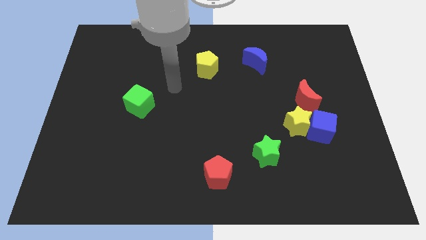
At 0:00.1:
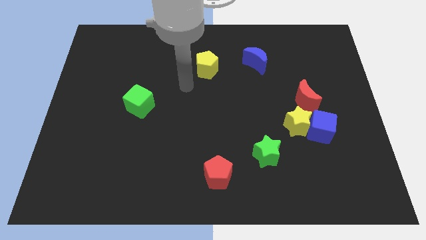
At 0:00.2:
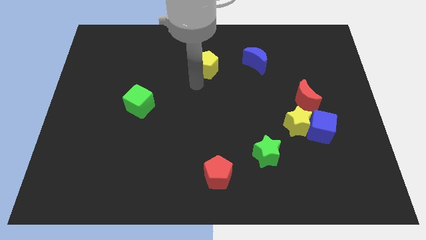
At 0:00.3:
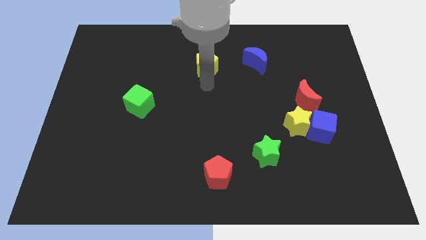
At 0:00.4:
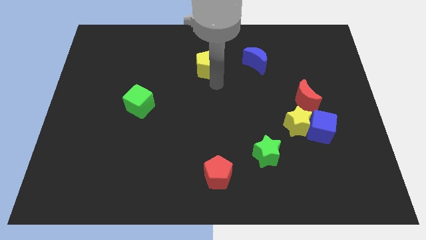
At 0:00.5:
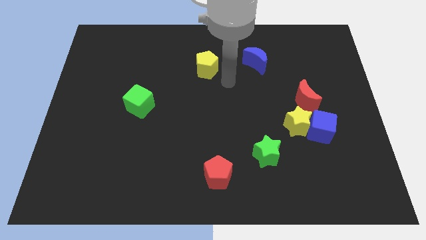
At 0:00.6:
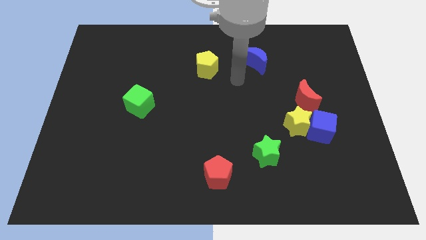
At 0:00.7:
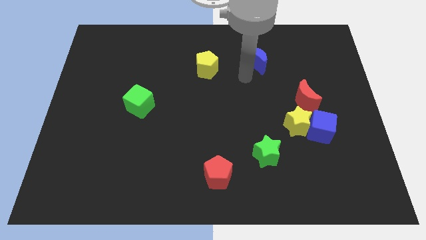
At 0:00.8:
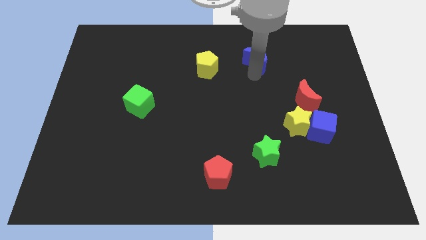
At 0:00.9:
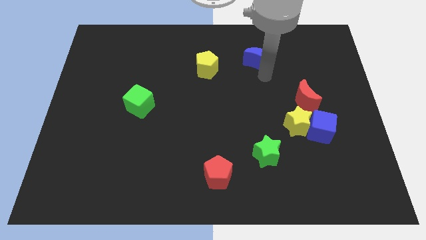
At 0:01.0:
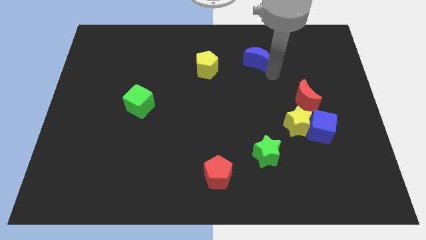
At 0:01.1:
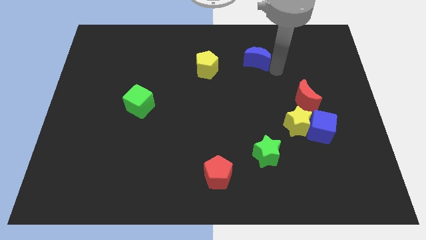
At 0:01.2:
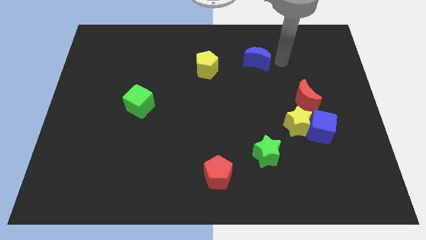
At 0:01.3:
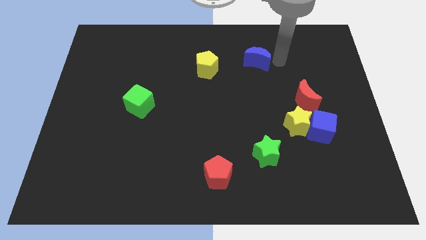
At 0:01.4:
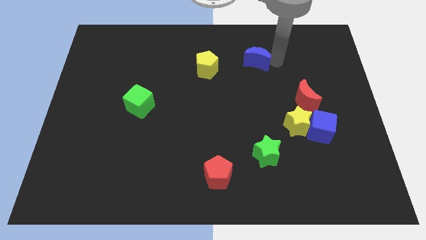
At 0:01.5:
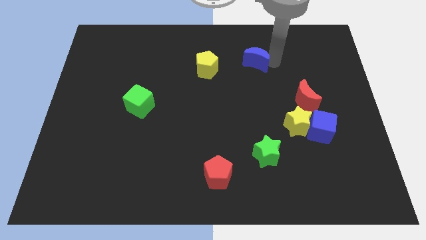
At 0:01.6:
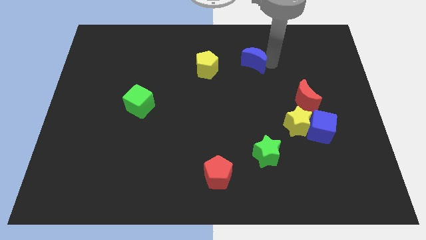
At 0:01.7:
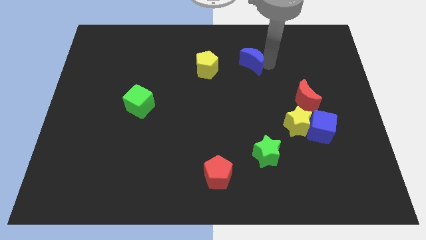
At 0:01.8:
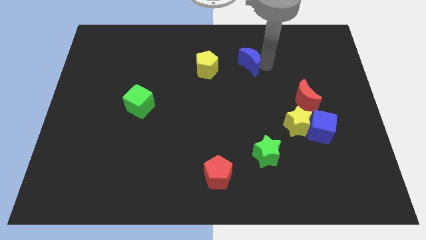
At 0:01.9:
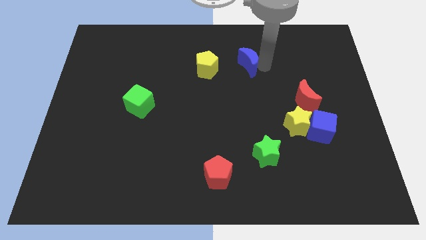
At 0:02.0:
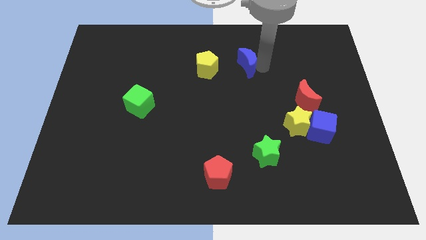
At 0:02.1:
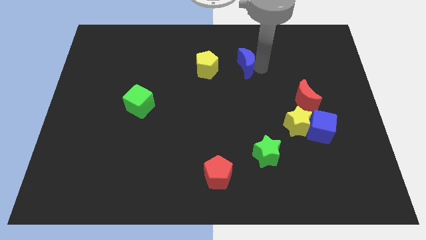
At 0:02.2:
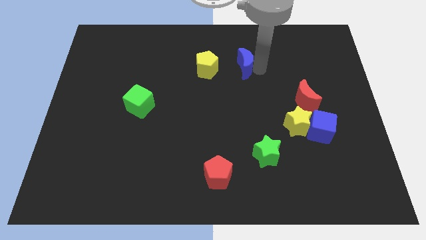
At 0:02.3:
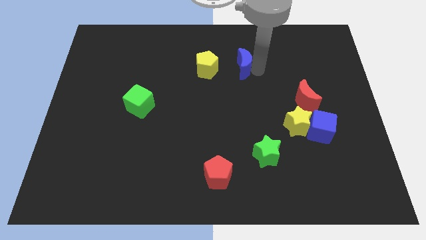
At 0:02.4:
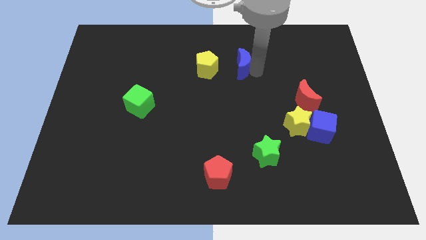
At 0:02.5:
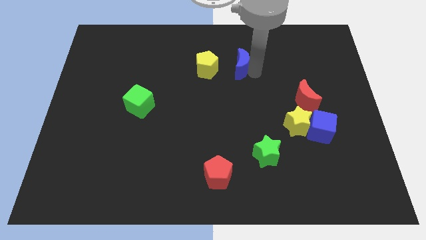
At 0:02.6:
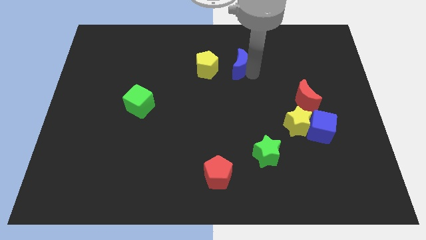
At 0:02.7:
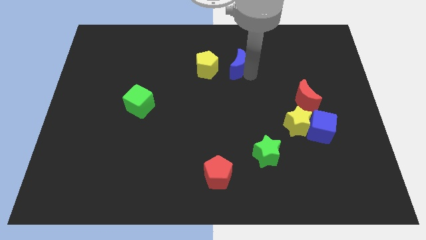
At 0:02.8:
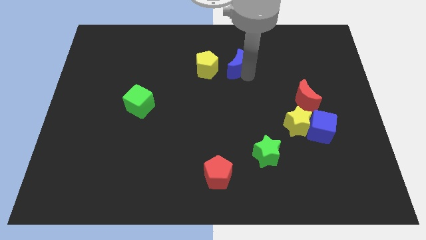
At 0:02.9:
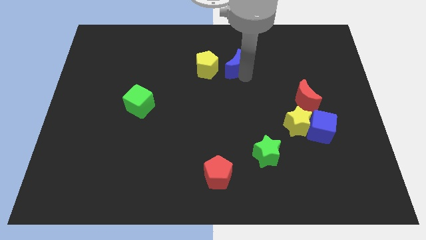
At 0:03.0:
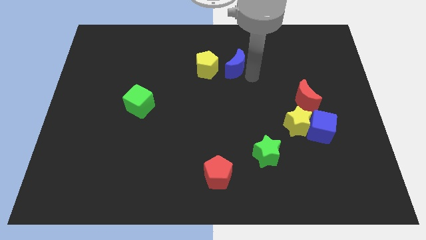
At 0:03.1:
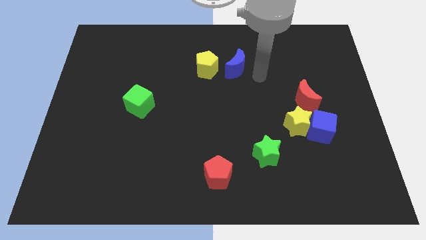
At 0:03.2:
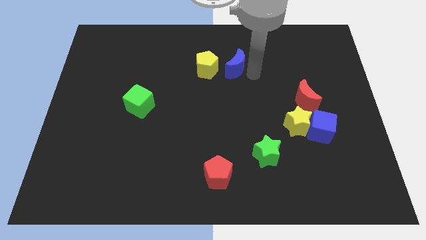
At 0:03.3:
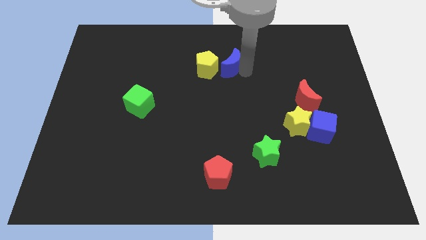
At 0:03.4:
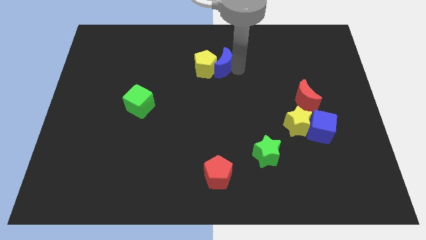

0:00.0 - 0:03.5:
move the blue moon left a little bit

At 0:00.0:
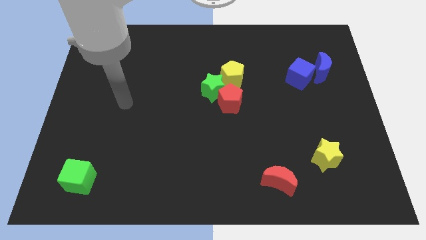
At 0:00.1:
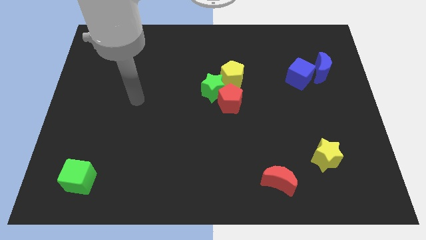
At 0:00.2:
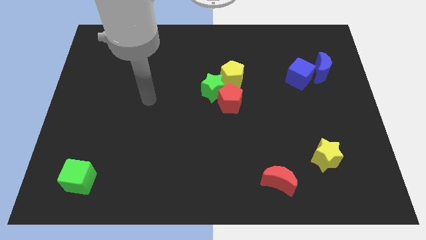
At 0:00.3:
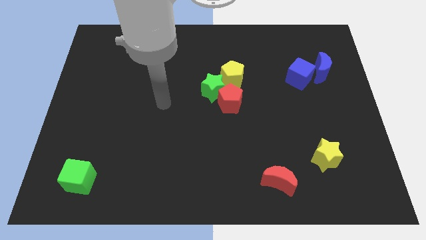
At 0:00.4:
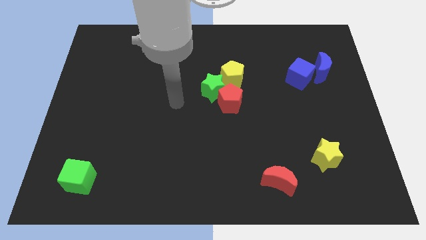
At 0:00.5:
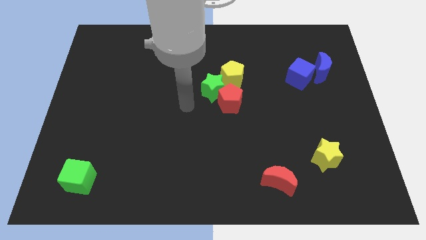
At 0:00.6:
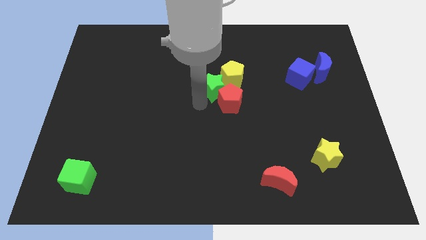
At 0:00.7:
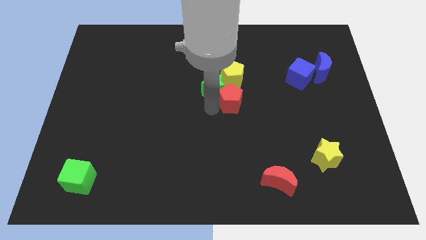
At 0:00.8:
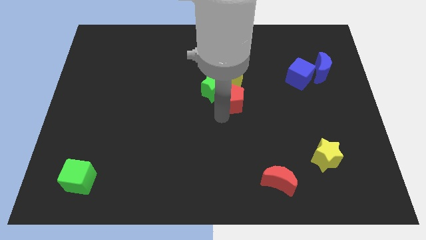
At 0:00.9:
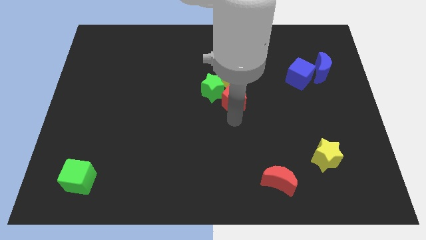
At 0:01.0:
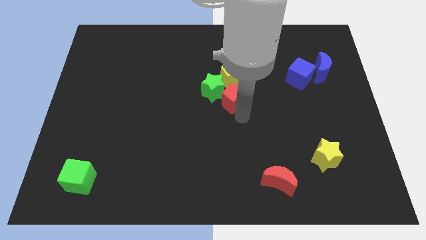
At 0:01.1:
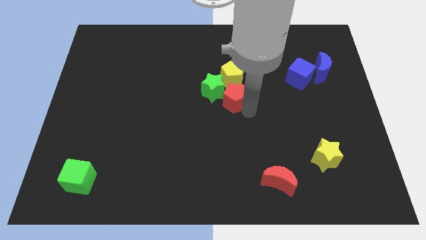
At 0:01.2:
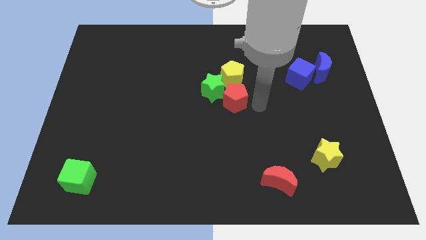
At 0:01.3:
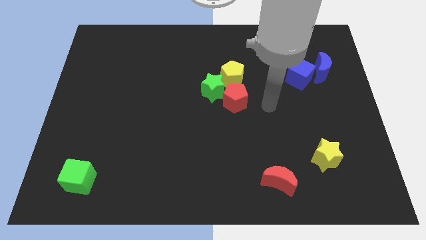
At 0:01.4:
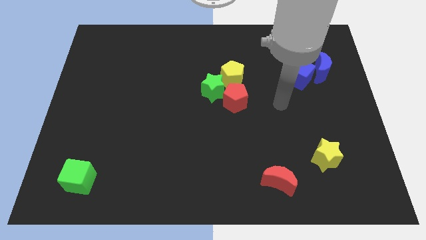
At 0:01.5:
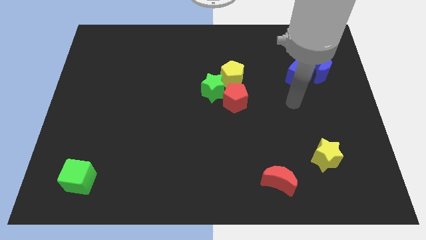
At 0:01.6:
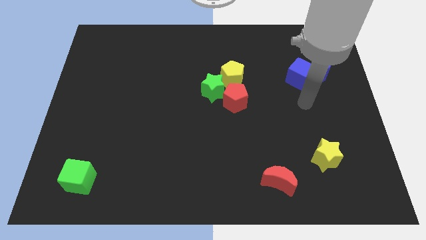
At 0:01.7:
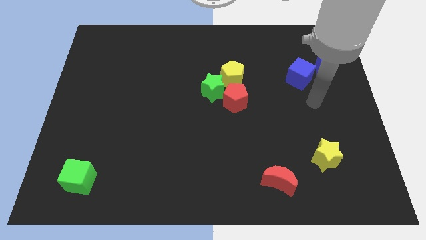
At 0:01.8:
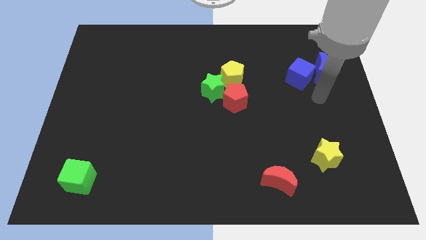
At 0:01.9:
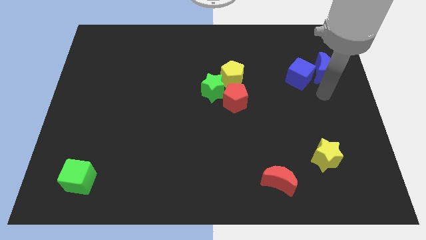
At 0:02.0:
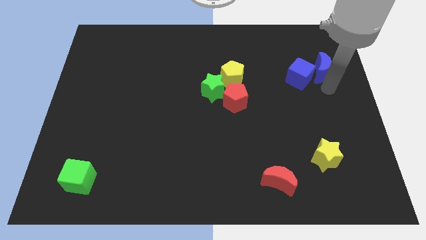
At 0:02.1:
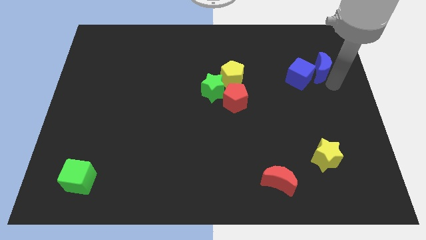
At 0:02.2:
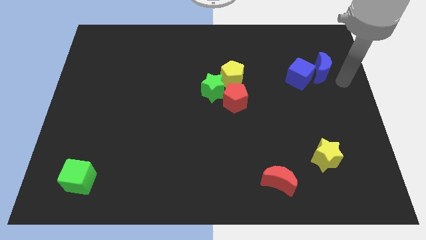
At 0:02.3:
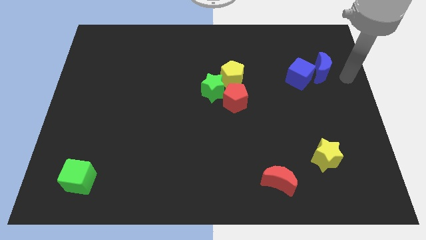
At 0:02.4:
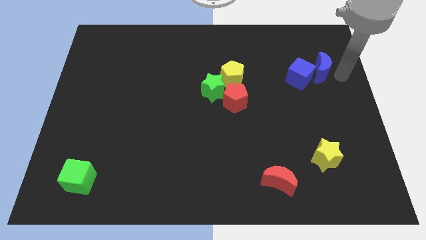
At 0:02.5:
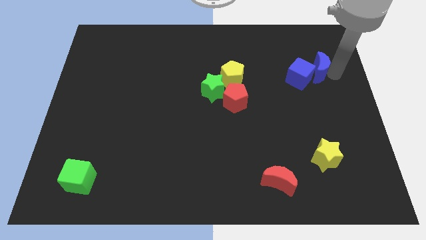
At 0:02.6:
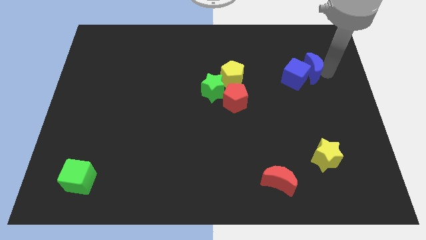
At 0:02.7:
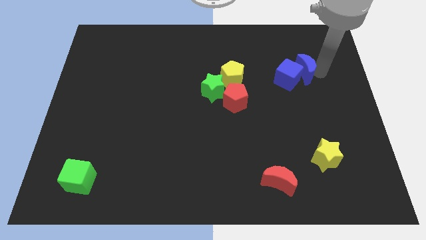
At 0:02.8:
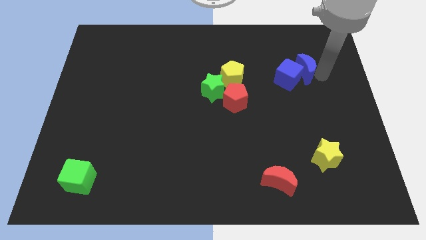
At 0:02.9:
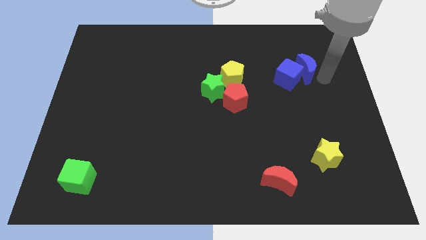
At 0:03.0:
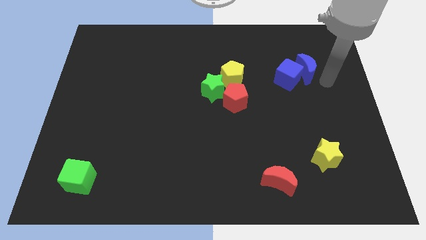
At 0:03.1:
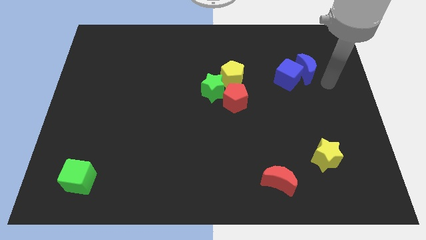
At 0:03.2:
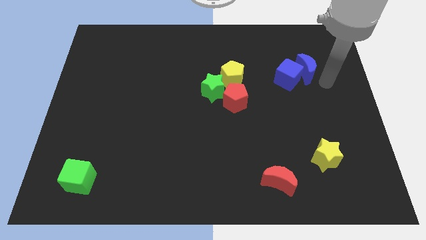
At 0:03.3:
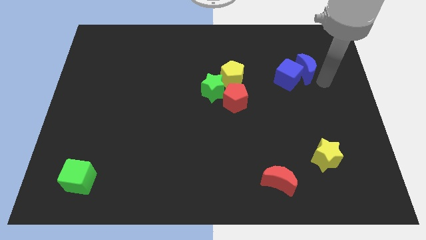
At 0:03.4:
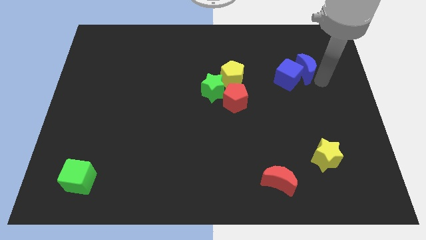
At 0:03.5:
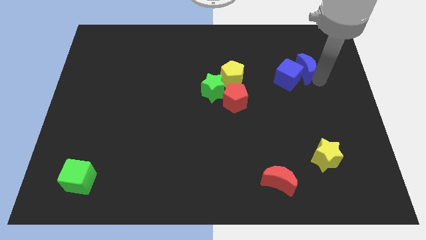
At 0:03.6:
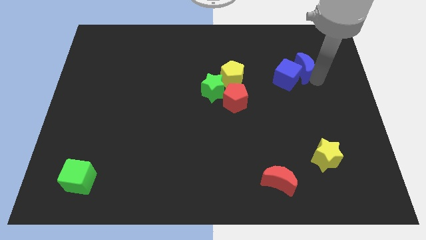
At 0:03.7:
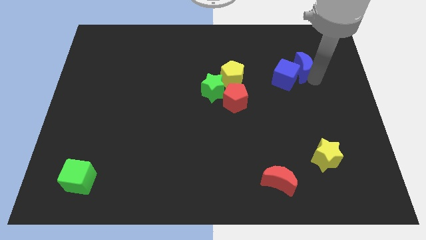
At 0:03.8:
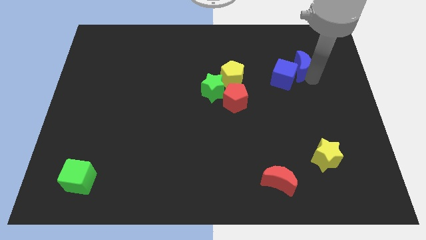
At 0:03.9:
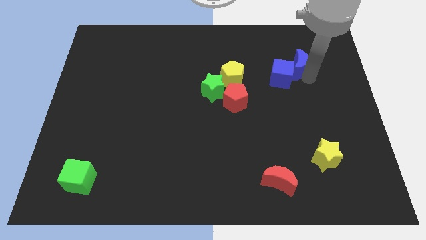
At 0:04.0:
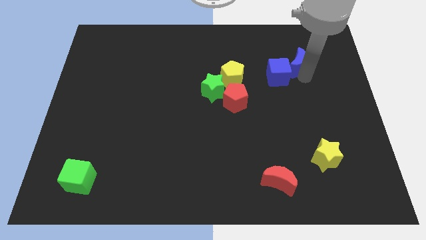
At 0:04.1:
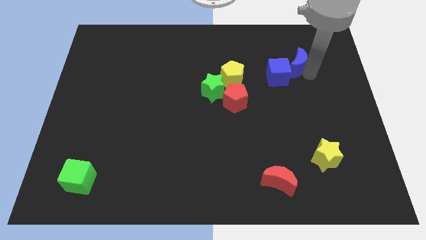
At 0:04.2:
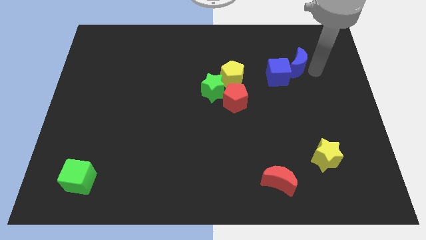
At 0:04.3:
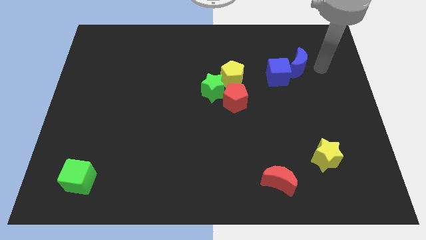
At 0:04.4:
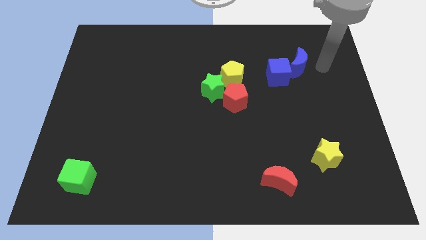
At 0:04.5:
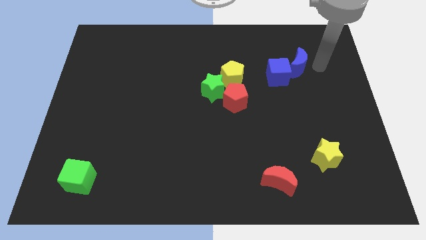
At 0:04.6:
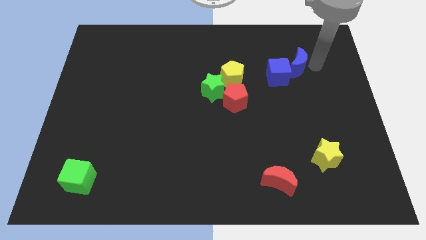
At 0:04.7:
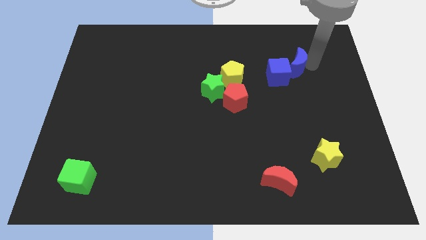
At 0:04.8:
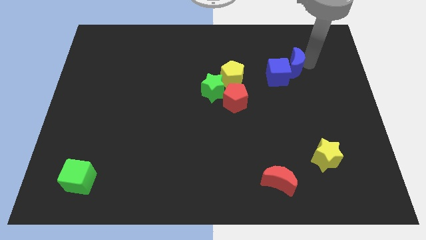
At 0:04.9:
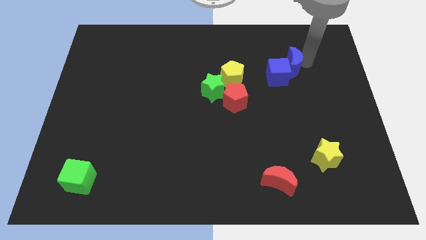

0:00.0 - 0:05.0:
push the blue moon a bit to the left
